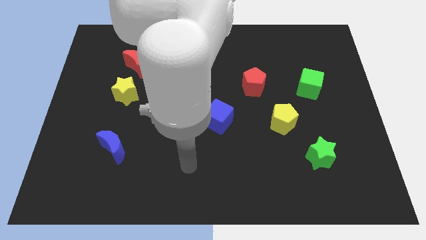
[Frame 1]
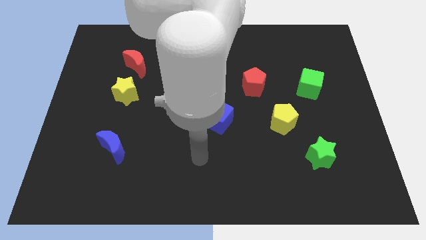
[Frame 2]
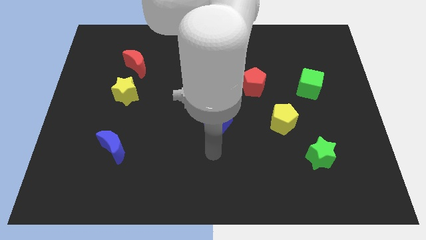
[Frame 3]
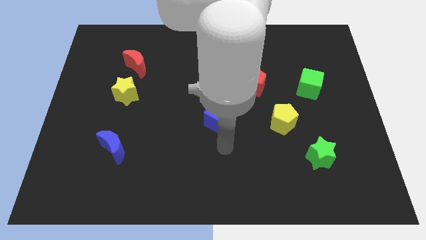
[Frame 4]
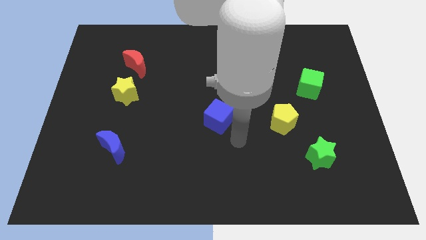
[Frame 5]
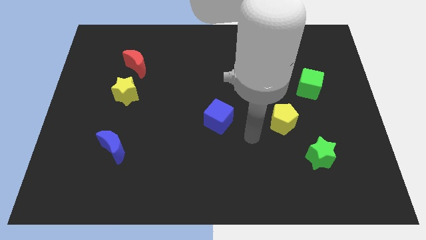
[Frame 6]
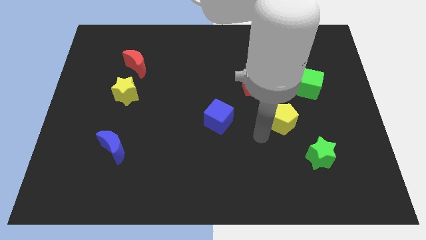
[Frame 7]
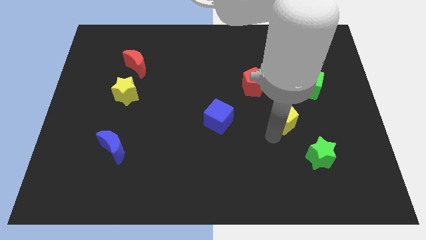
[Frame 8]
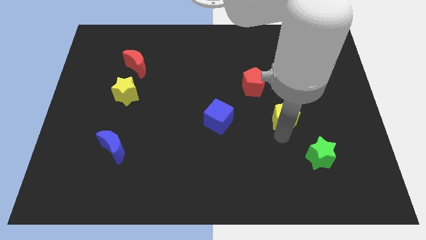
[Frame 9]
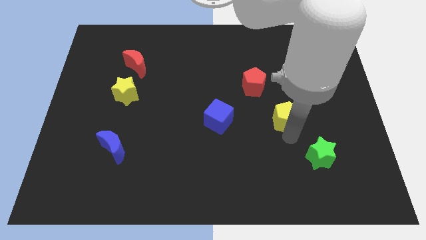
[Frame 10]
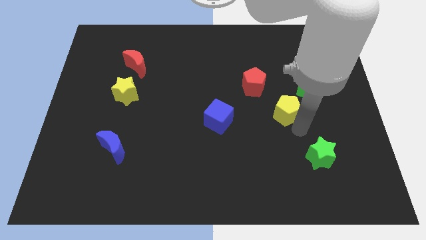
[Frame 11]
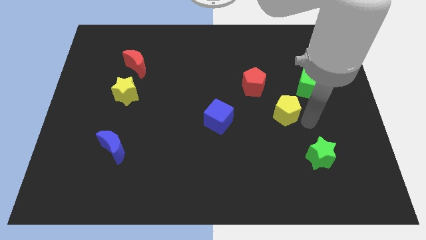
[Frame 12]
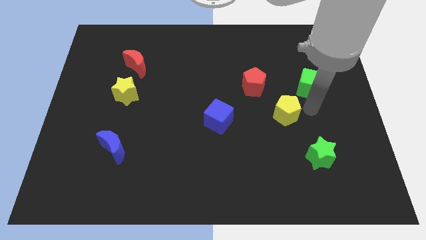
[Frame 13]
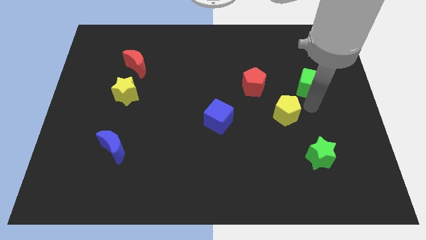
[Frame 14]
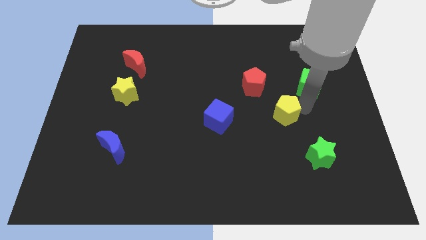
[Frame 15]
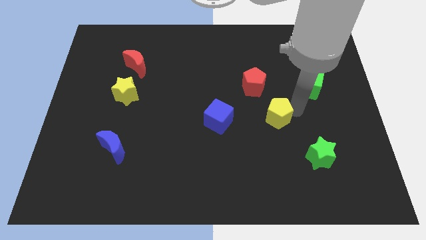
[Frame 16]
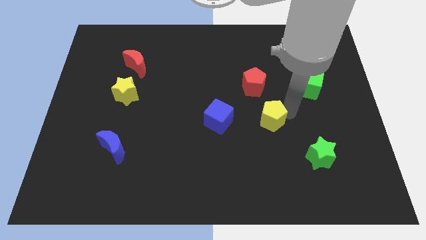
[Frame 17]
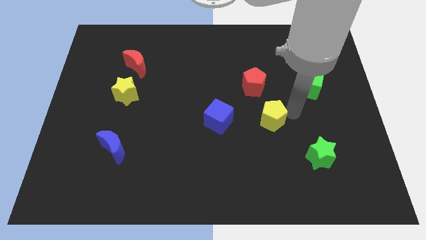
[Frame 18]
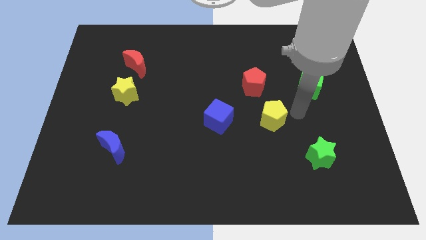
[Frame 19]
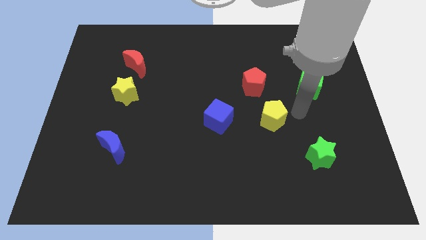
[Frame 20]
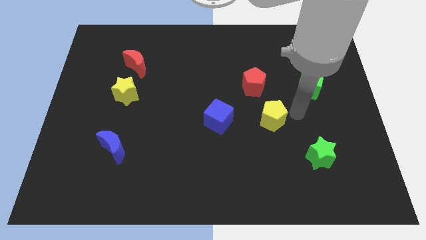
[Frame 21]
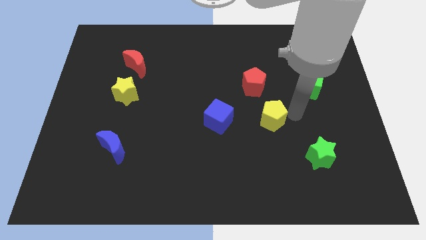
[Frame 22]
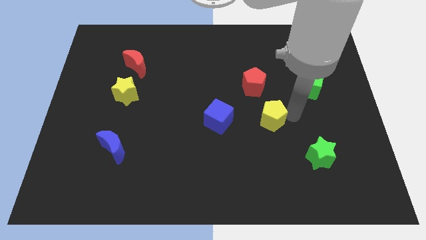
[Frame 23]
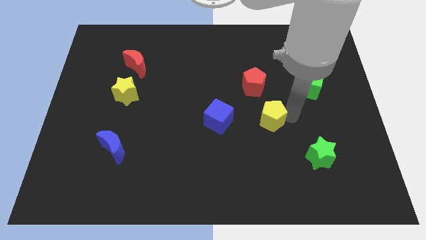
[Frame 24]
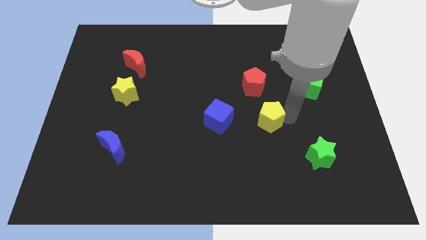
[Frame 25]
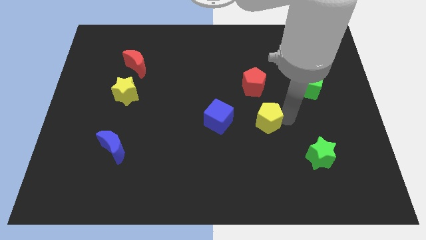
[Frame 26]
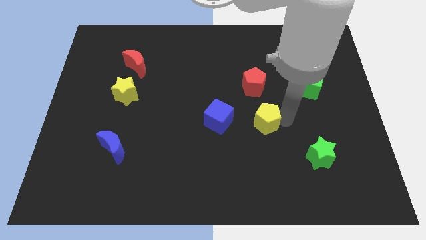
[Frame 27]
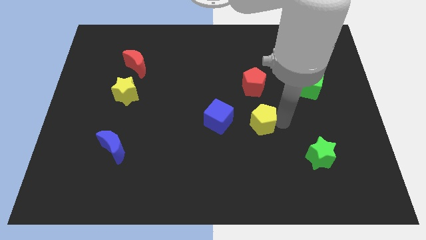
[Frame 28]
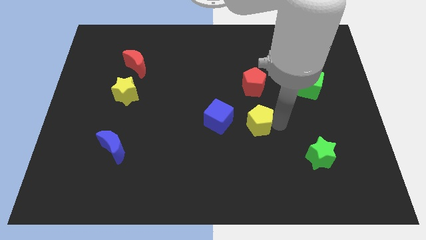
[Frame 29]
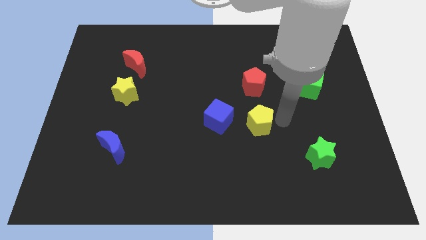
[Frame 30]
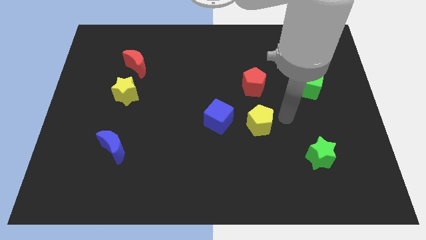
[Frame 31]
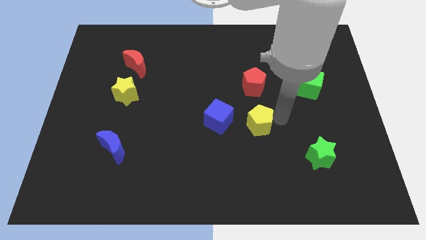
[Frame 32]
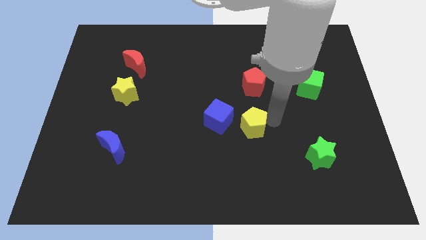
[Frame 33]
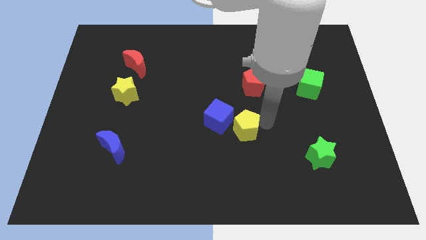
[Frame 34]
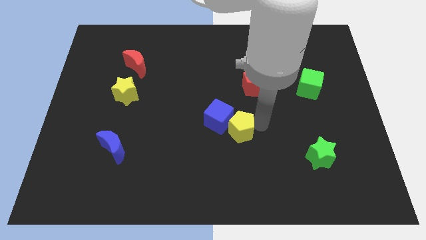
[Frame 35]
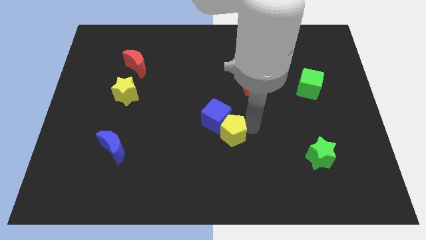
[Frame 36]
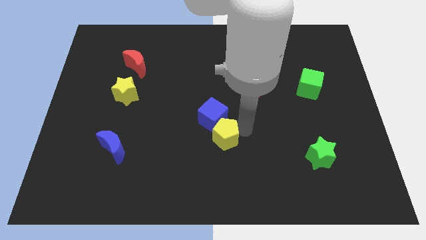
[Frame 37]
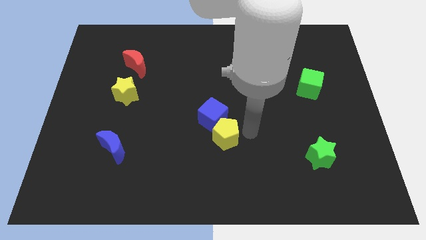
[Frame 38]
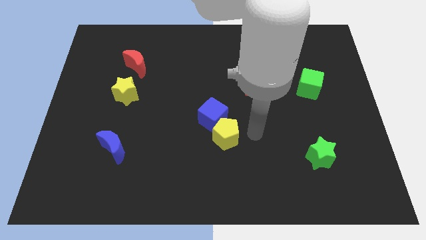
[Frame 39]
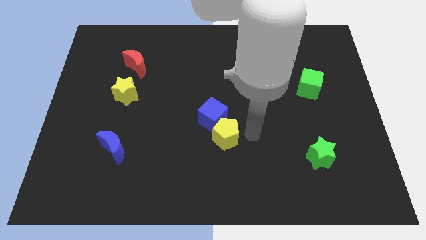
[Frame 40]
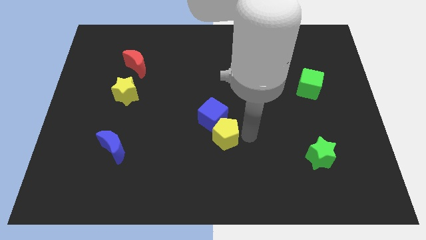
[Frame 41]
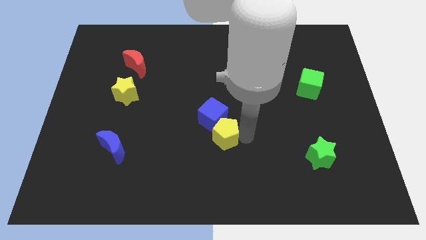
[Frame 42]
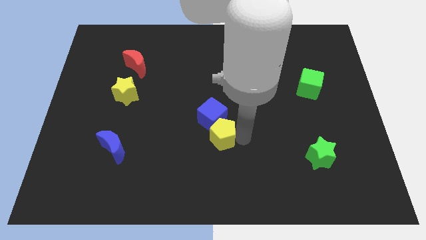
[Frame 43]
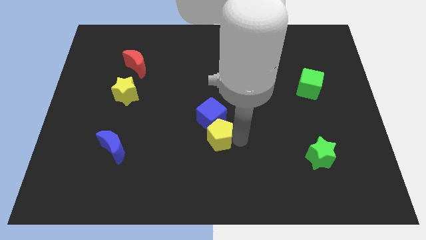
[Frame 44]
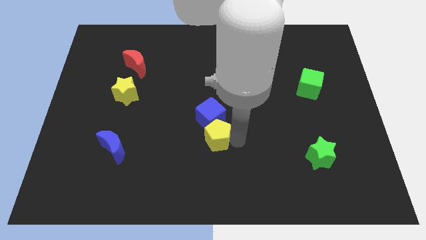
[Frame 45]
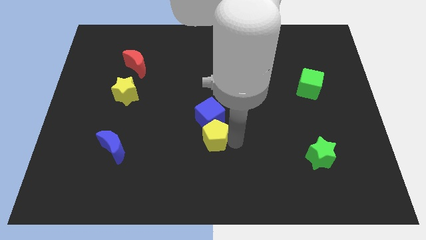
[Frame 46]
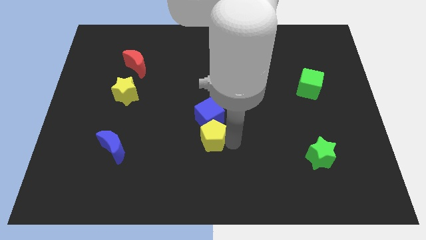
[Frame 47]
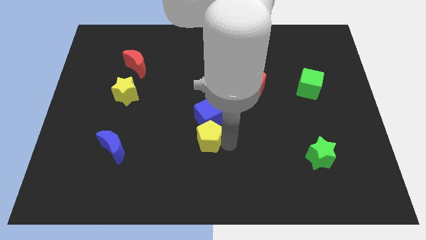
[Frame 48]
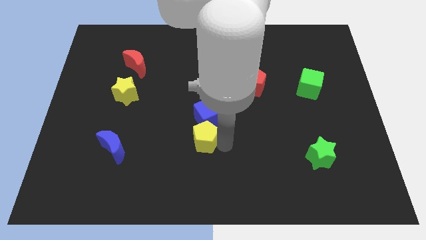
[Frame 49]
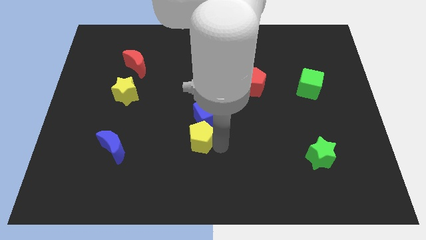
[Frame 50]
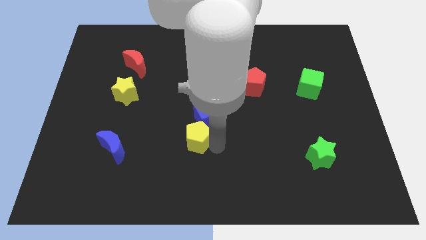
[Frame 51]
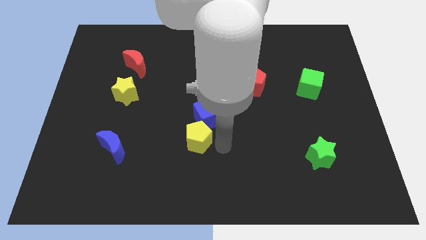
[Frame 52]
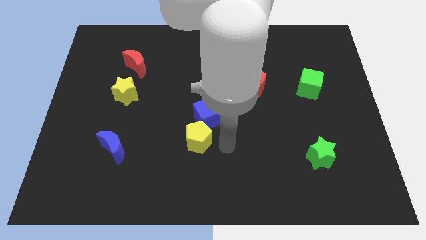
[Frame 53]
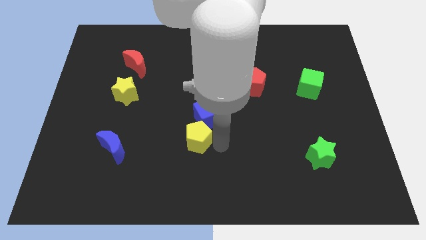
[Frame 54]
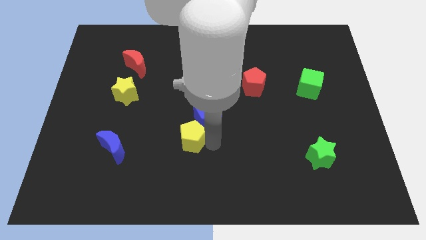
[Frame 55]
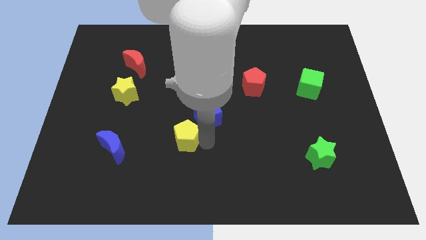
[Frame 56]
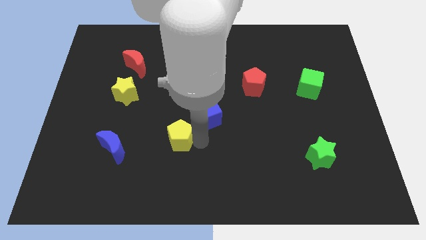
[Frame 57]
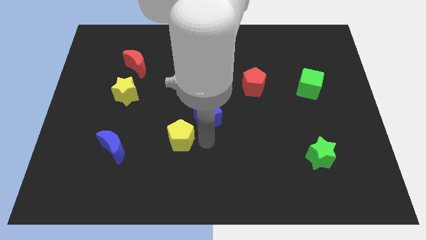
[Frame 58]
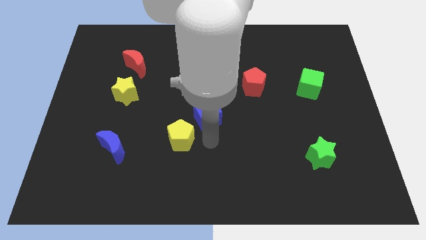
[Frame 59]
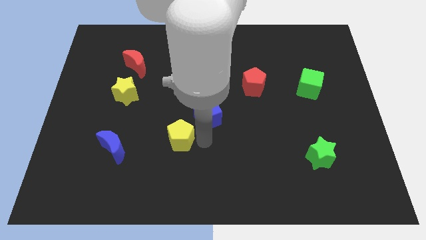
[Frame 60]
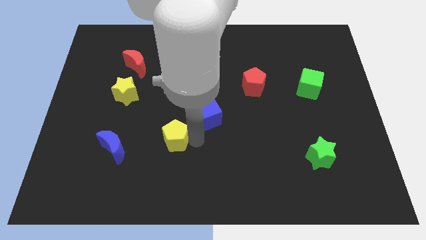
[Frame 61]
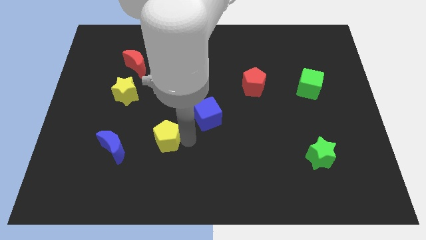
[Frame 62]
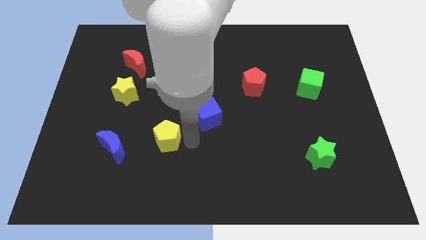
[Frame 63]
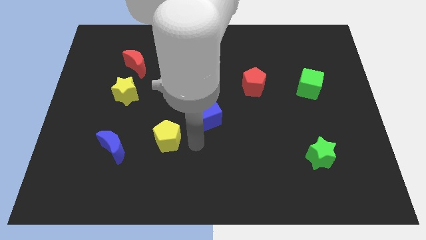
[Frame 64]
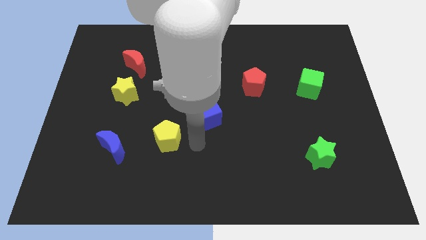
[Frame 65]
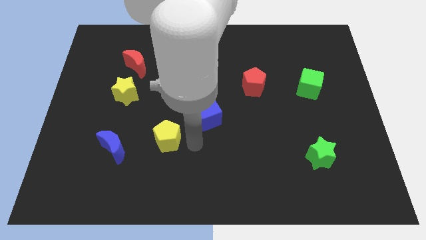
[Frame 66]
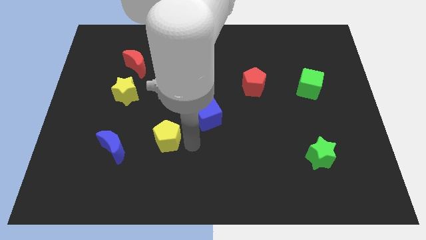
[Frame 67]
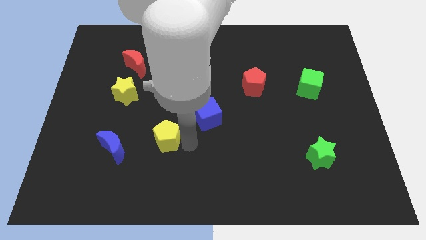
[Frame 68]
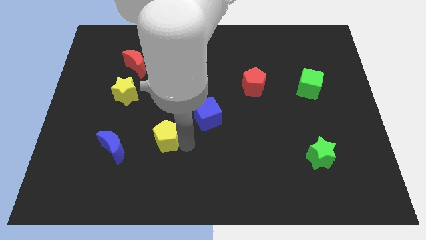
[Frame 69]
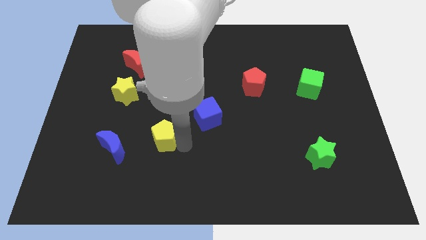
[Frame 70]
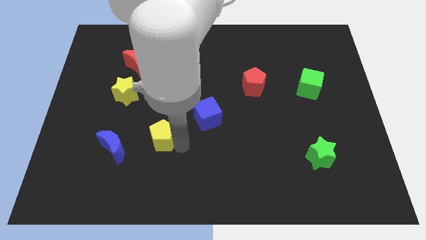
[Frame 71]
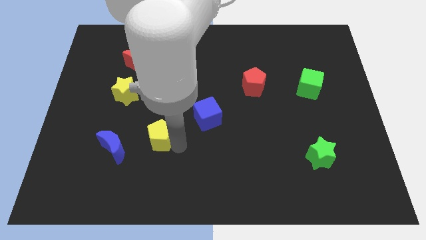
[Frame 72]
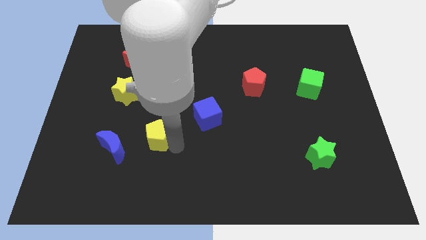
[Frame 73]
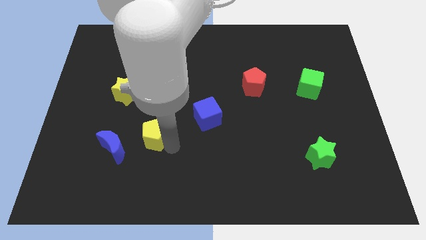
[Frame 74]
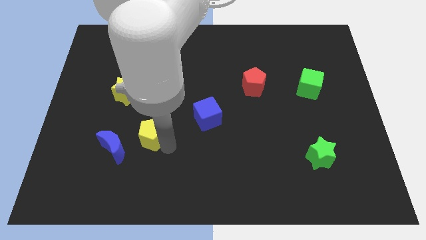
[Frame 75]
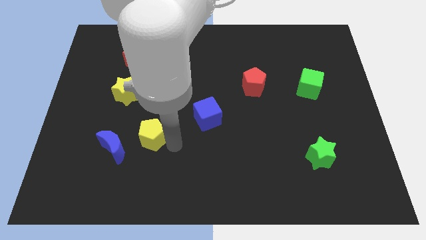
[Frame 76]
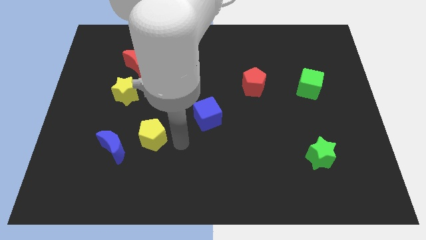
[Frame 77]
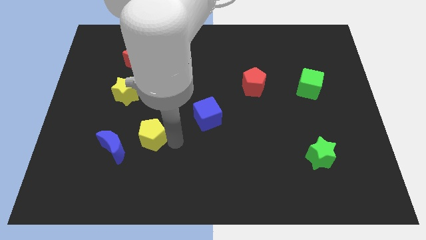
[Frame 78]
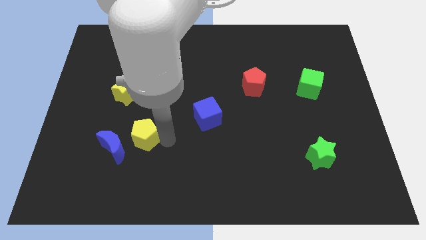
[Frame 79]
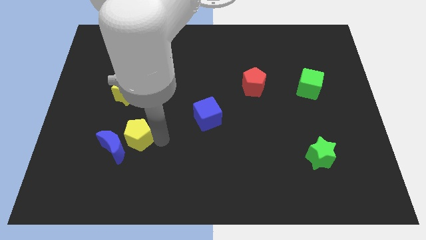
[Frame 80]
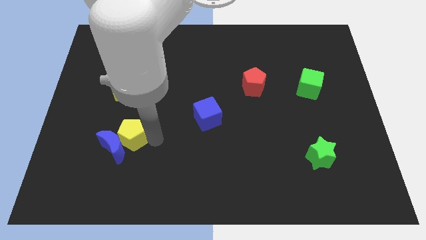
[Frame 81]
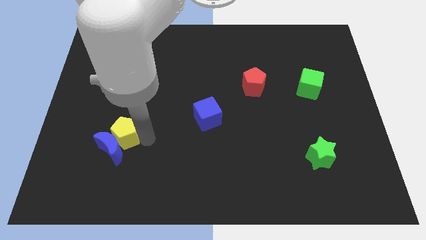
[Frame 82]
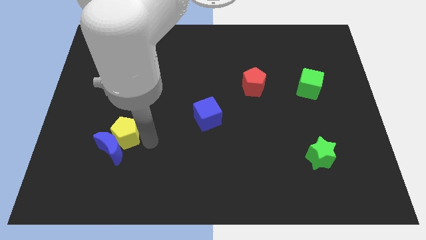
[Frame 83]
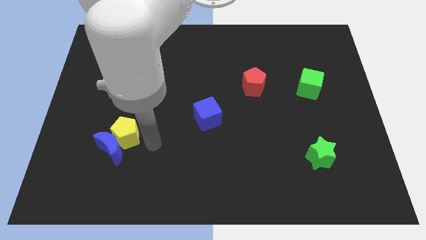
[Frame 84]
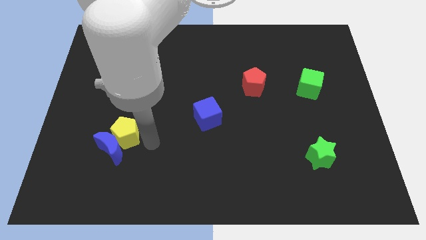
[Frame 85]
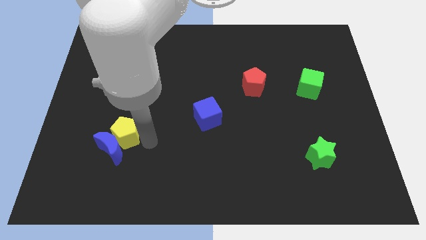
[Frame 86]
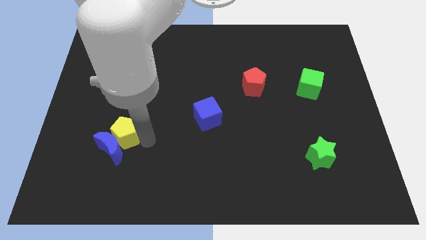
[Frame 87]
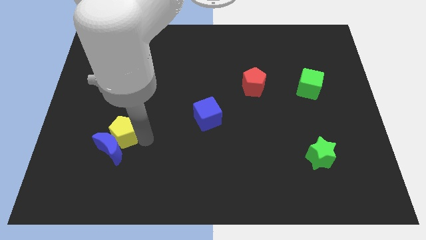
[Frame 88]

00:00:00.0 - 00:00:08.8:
move the yellow pentagon to the top left of the blue moon
